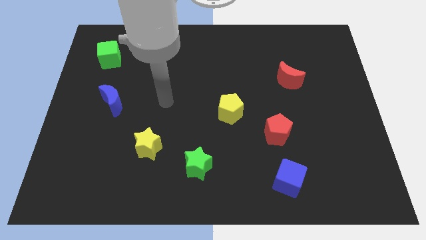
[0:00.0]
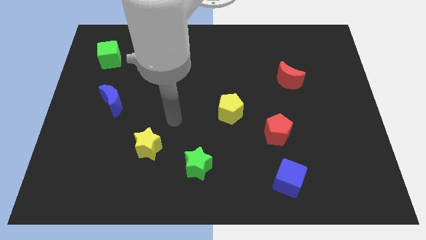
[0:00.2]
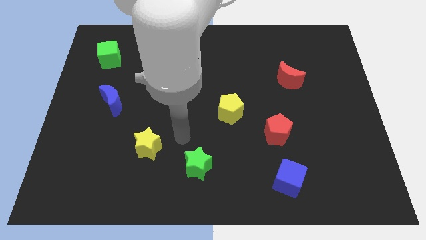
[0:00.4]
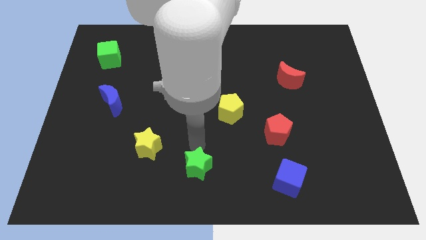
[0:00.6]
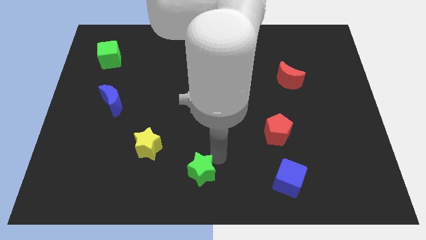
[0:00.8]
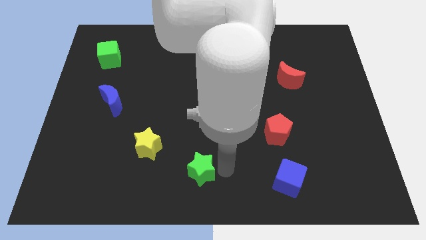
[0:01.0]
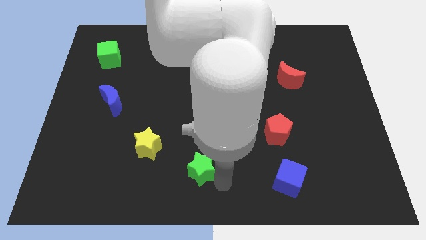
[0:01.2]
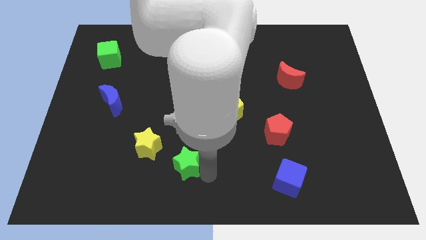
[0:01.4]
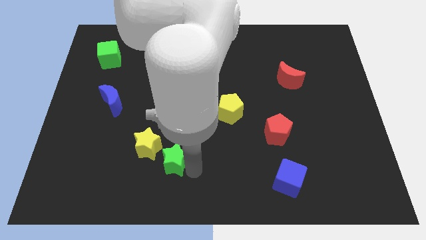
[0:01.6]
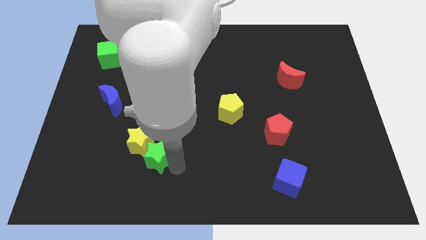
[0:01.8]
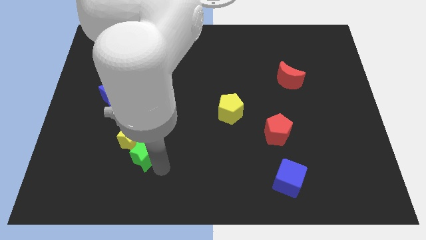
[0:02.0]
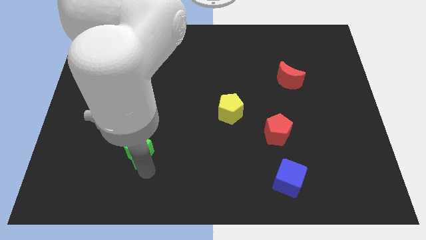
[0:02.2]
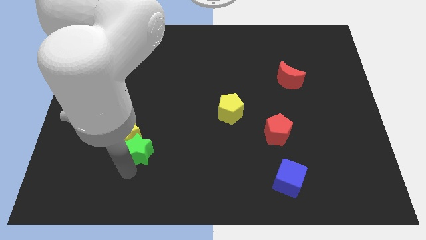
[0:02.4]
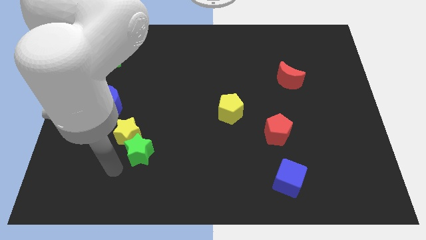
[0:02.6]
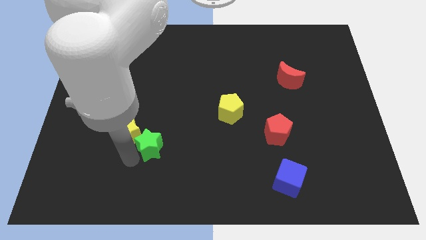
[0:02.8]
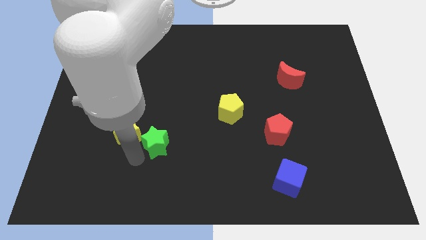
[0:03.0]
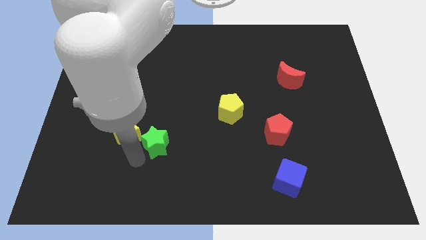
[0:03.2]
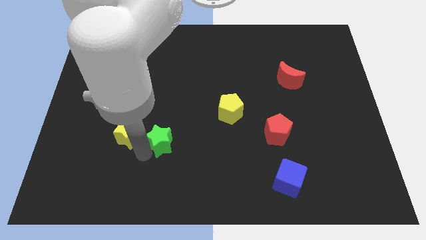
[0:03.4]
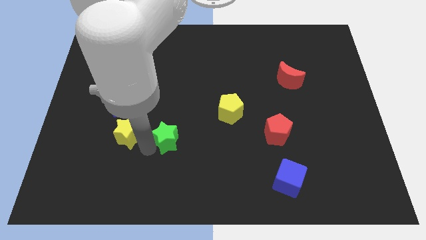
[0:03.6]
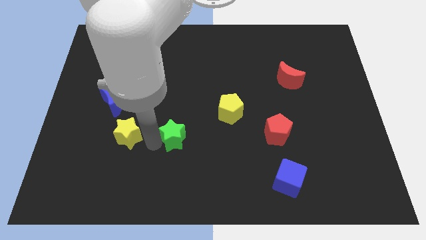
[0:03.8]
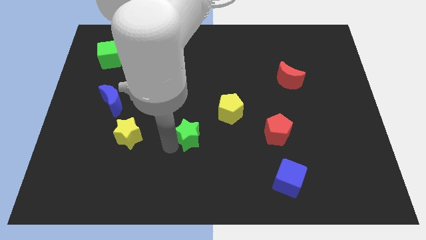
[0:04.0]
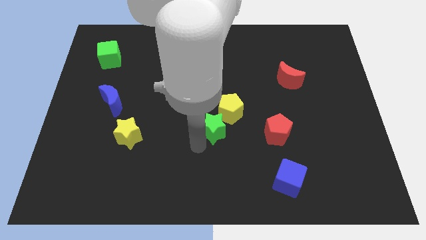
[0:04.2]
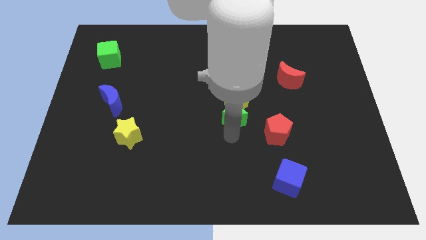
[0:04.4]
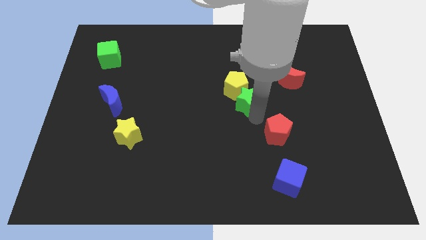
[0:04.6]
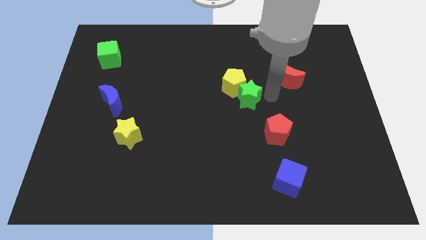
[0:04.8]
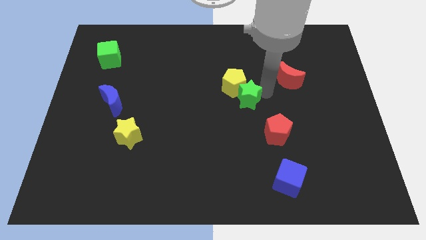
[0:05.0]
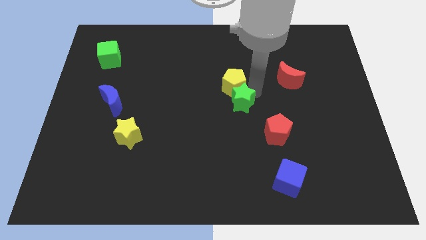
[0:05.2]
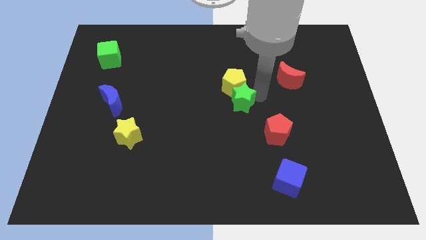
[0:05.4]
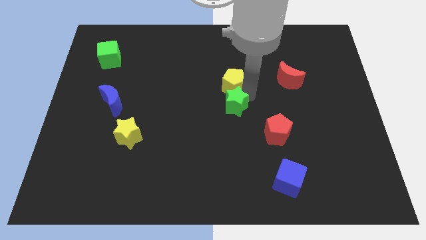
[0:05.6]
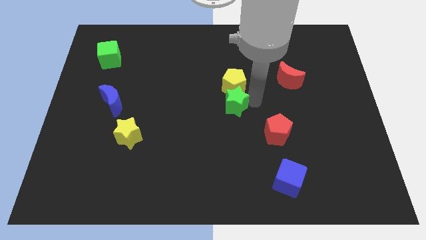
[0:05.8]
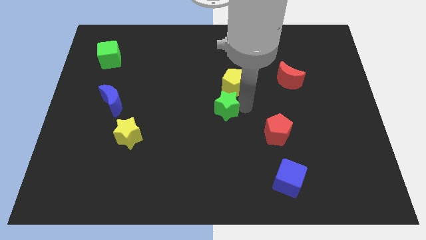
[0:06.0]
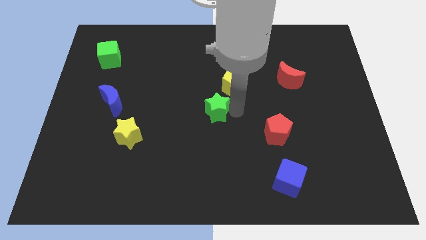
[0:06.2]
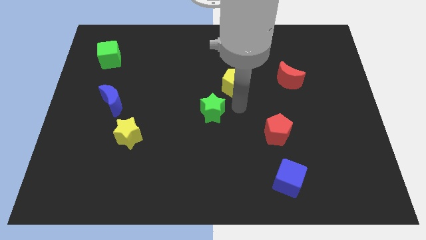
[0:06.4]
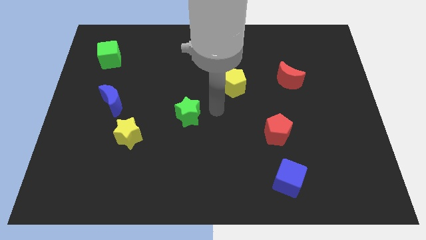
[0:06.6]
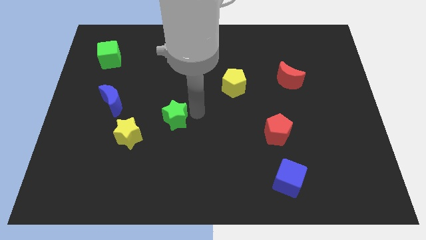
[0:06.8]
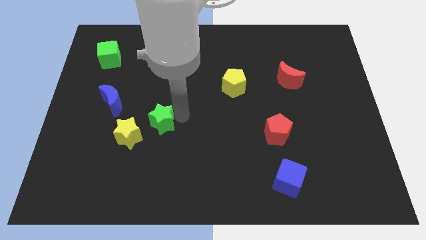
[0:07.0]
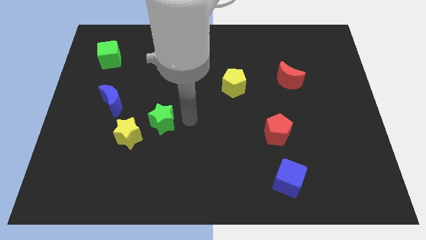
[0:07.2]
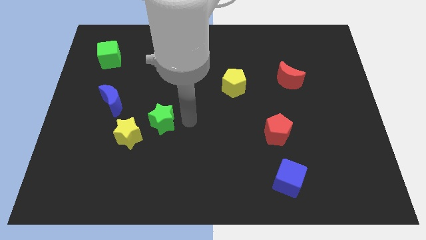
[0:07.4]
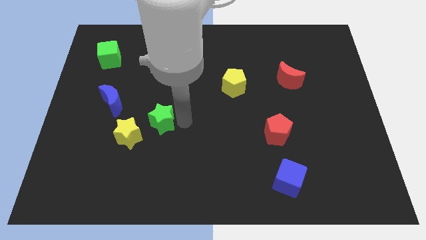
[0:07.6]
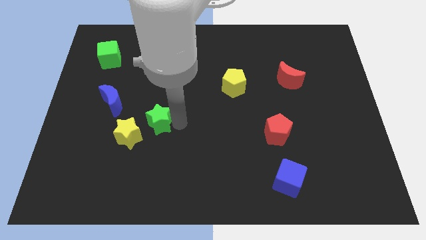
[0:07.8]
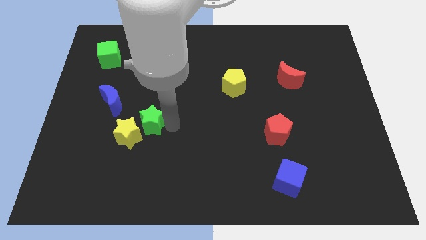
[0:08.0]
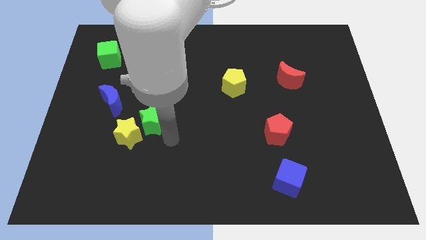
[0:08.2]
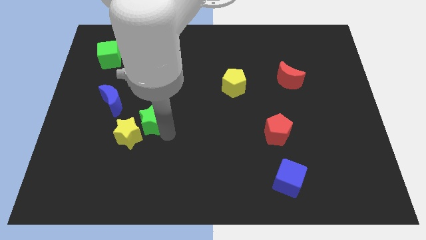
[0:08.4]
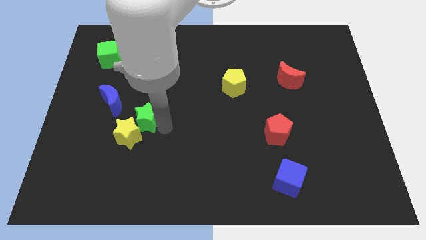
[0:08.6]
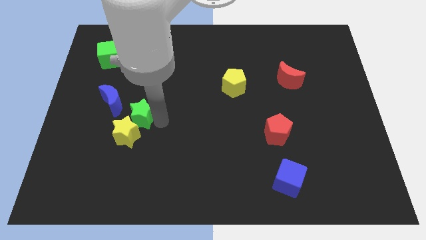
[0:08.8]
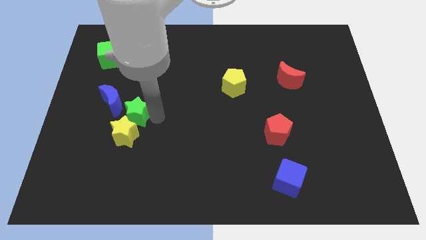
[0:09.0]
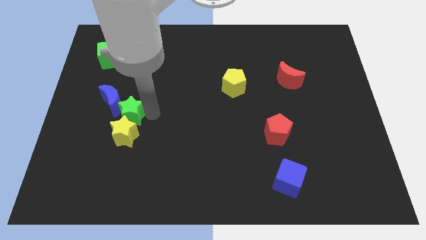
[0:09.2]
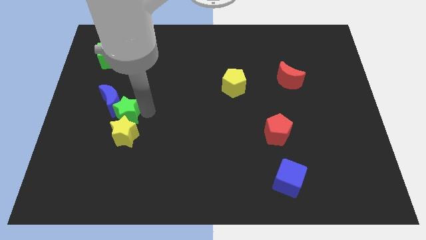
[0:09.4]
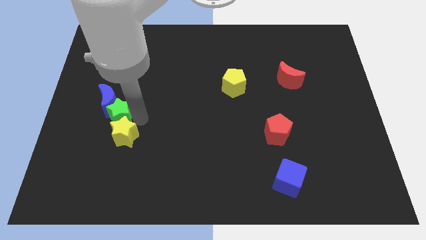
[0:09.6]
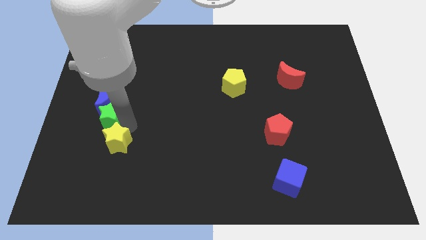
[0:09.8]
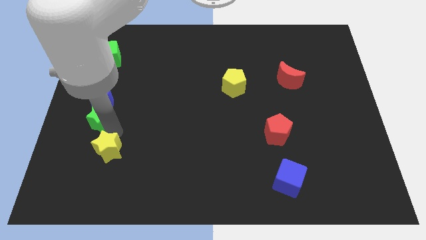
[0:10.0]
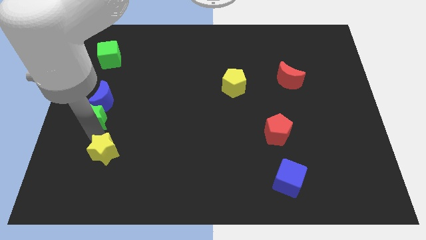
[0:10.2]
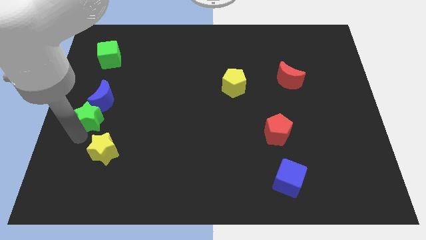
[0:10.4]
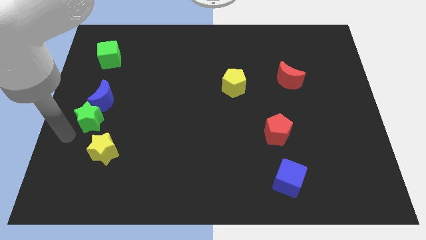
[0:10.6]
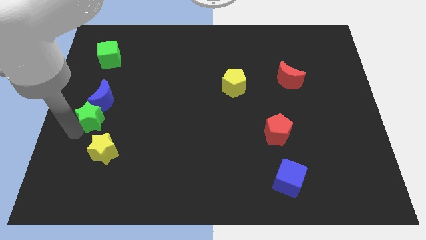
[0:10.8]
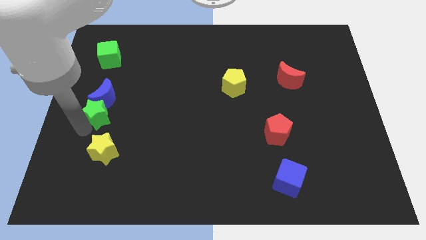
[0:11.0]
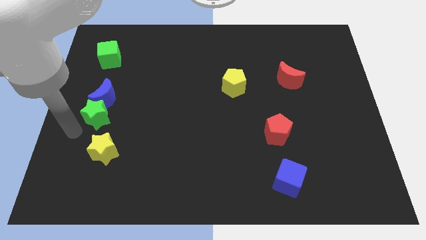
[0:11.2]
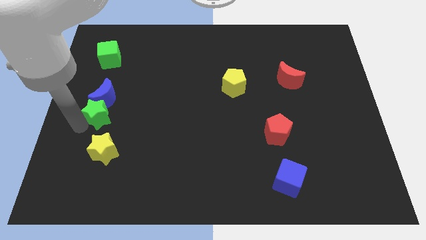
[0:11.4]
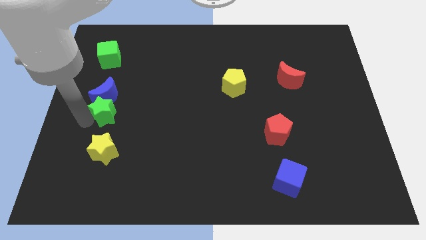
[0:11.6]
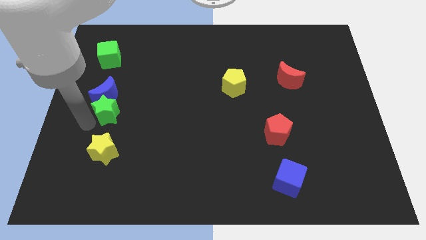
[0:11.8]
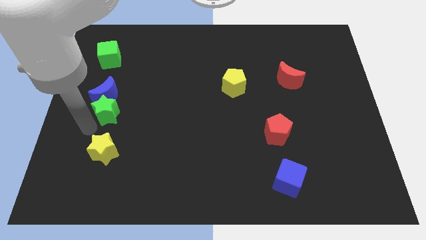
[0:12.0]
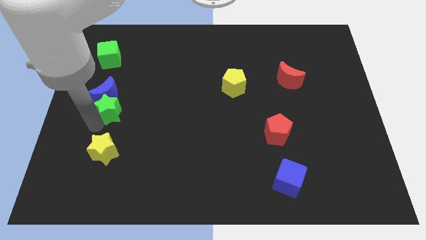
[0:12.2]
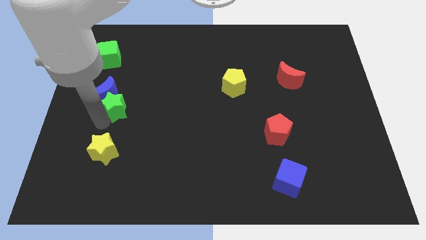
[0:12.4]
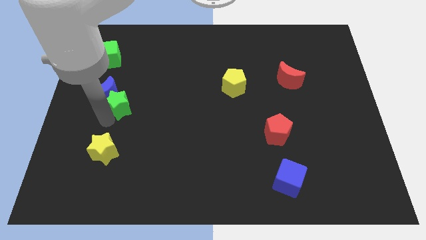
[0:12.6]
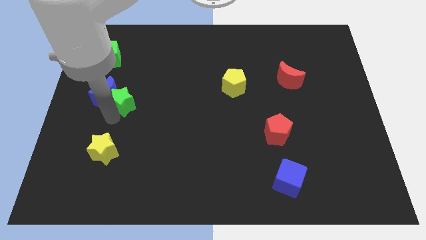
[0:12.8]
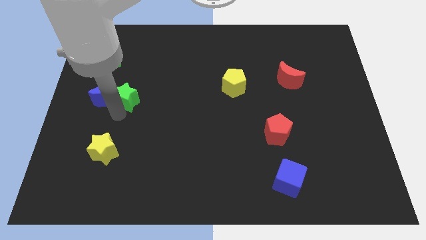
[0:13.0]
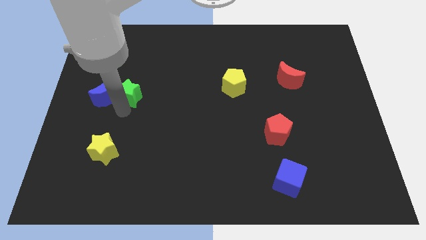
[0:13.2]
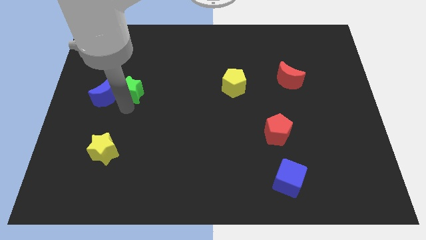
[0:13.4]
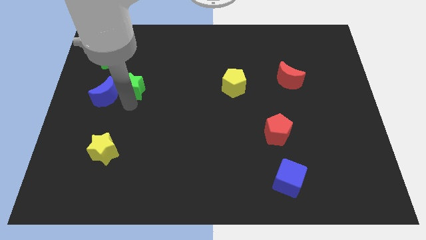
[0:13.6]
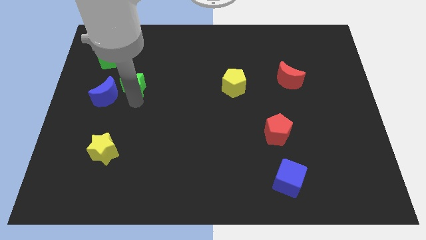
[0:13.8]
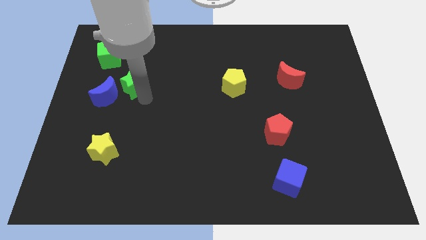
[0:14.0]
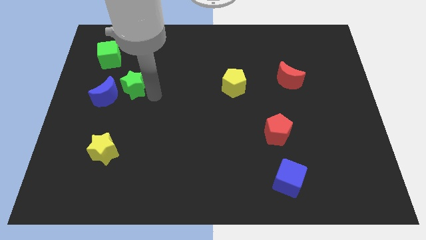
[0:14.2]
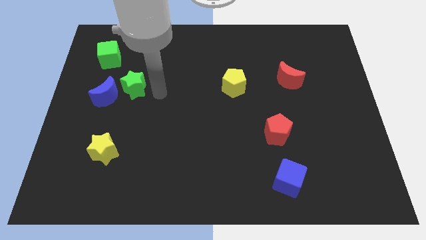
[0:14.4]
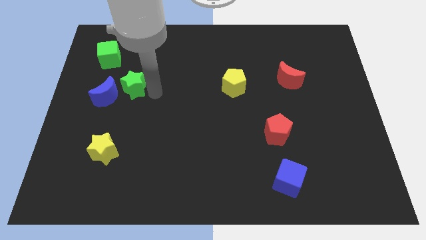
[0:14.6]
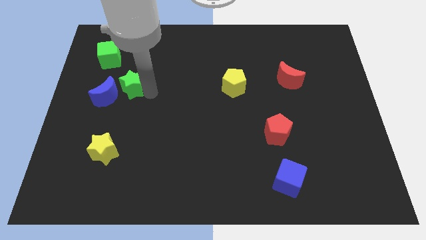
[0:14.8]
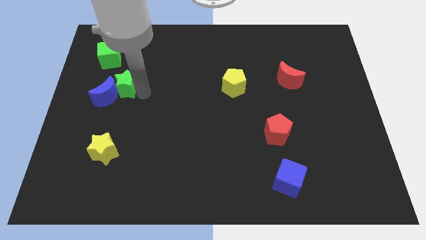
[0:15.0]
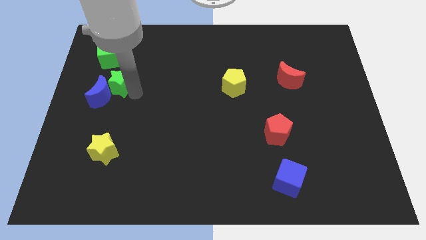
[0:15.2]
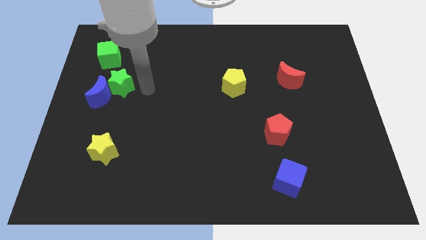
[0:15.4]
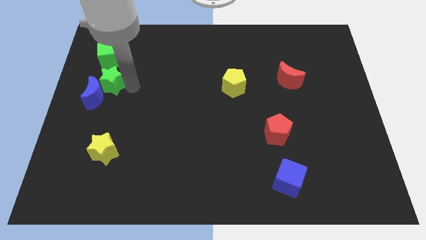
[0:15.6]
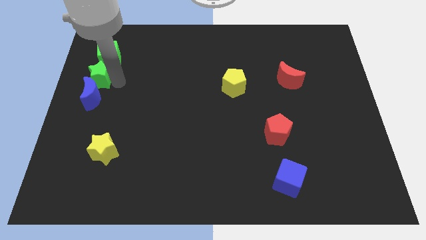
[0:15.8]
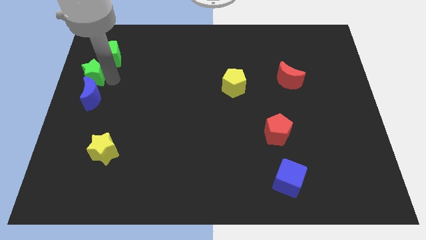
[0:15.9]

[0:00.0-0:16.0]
put the green star diagonally up and to the left of the blue moon
